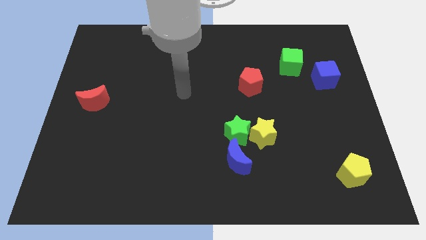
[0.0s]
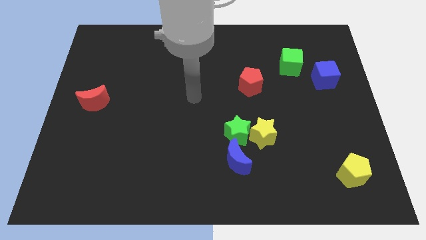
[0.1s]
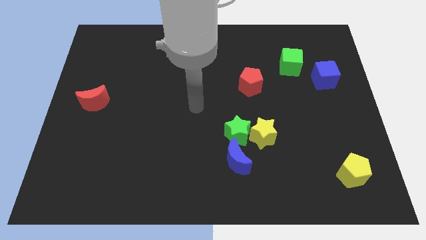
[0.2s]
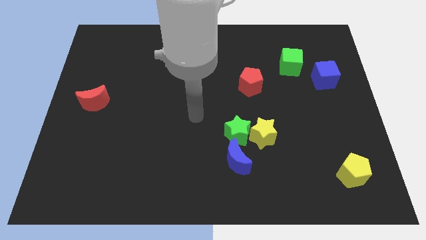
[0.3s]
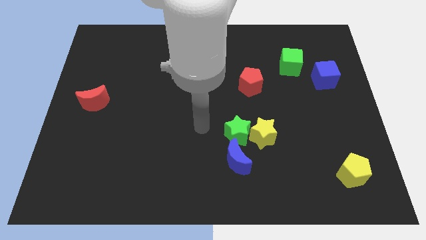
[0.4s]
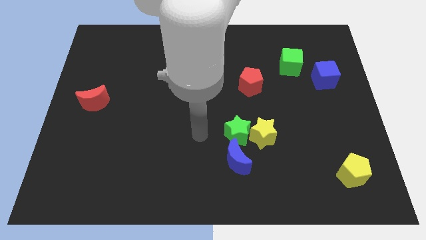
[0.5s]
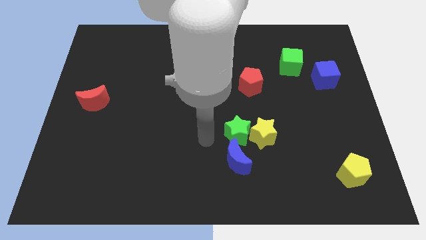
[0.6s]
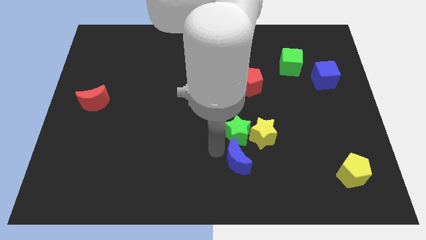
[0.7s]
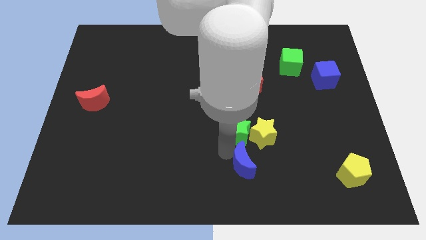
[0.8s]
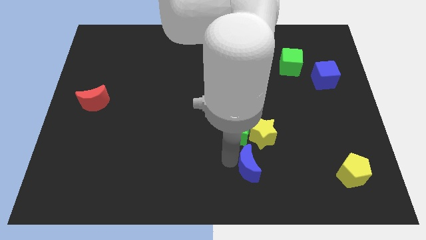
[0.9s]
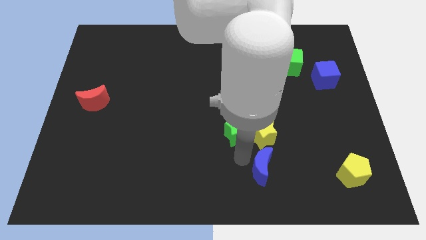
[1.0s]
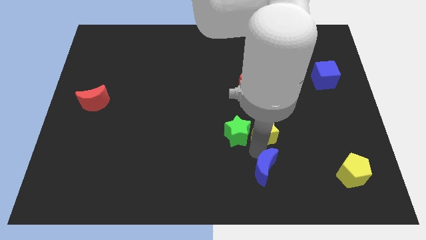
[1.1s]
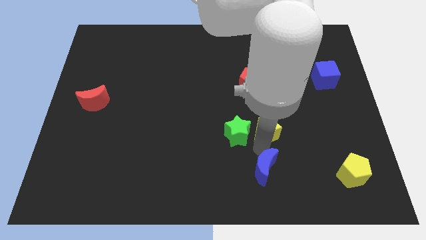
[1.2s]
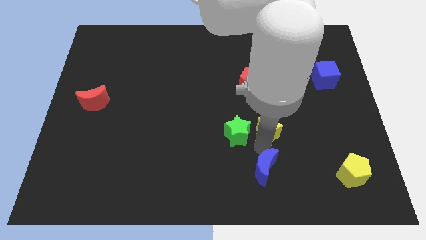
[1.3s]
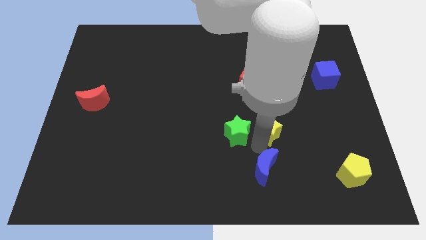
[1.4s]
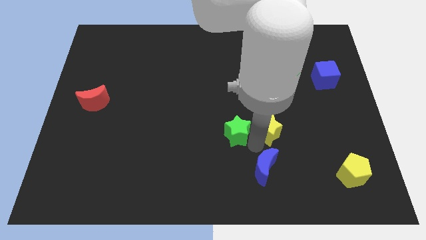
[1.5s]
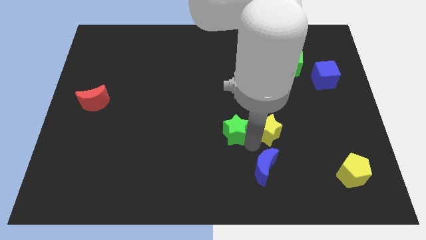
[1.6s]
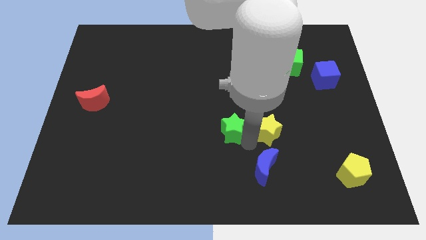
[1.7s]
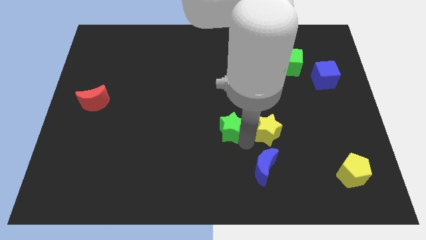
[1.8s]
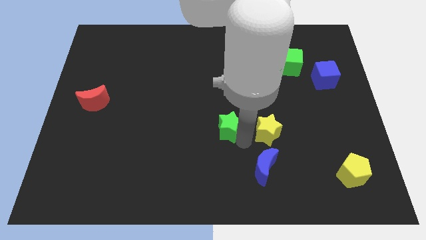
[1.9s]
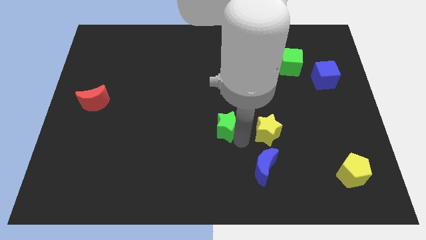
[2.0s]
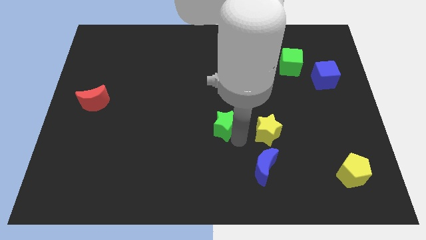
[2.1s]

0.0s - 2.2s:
separate the green star from the yellow star and blue moon

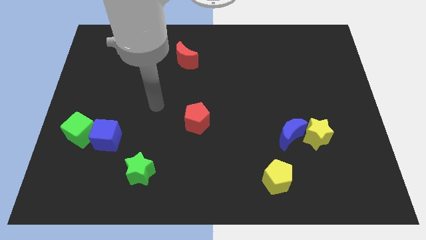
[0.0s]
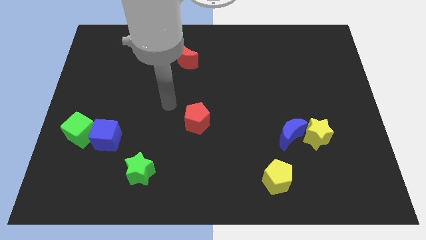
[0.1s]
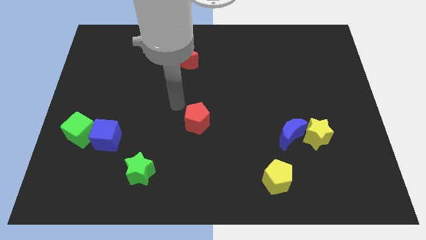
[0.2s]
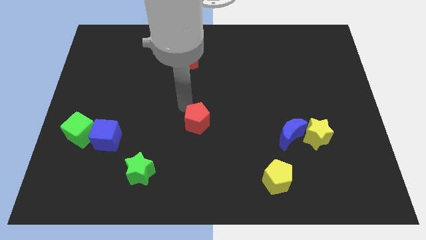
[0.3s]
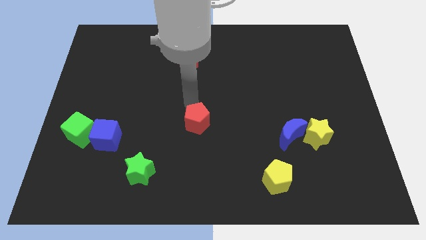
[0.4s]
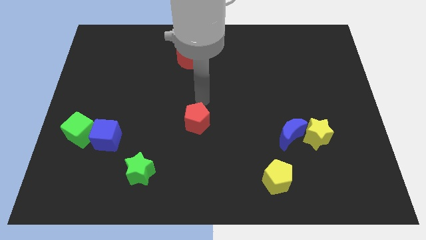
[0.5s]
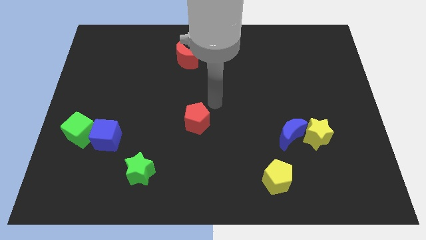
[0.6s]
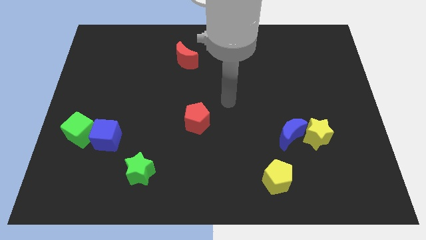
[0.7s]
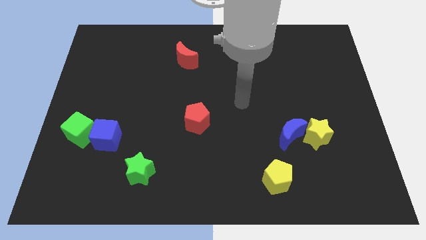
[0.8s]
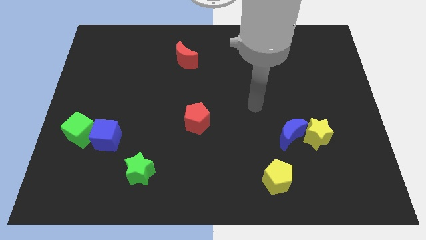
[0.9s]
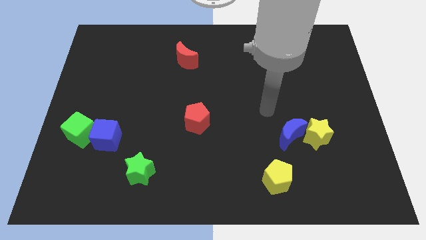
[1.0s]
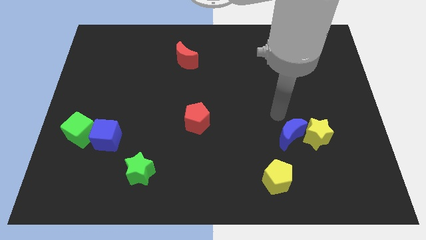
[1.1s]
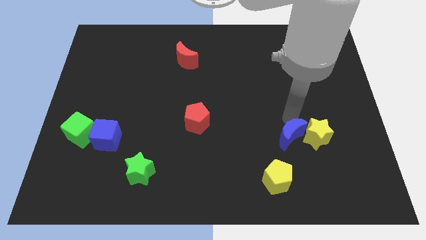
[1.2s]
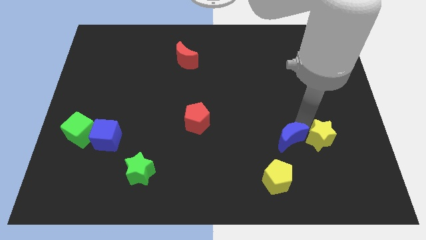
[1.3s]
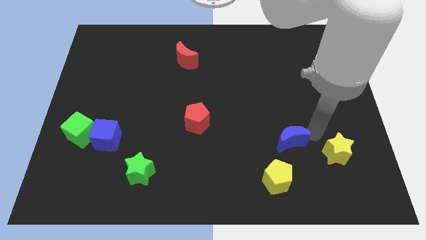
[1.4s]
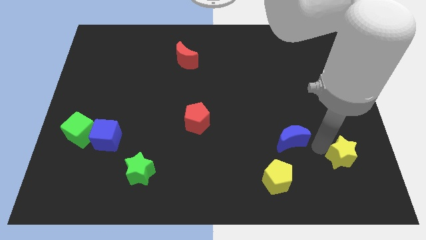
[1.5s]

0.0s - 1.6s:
move the blue moon away from the yellow star

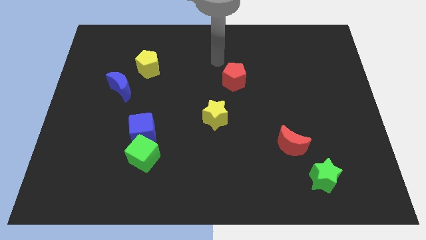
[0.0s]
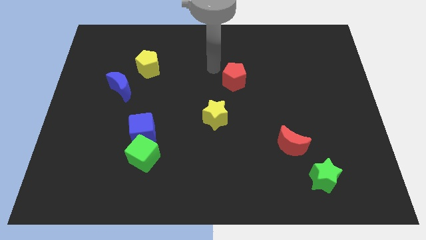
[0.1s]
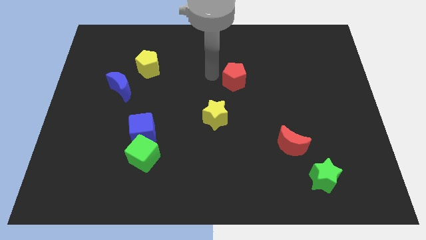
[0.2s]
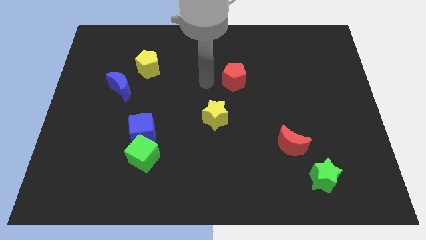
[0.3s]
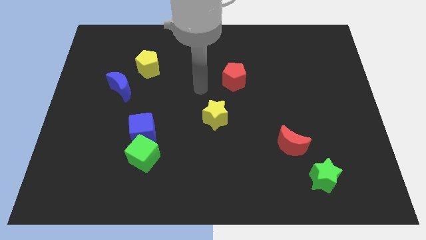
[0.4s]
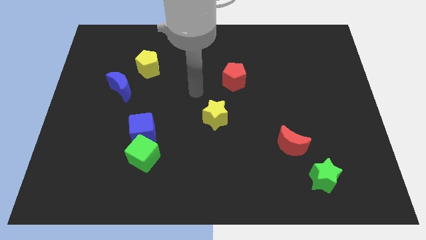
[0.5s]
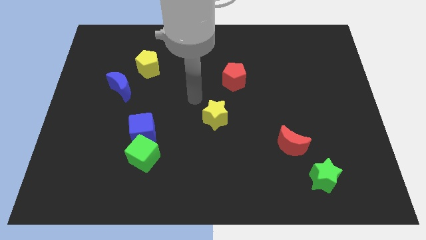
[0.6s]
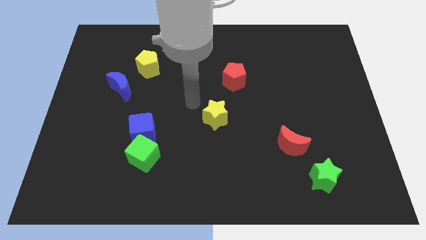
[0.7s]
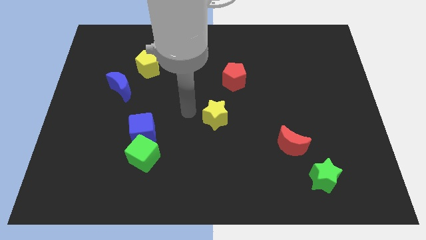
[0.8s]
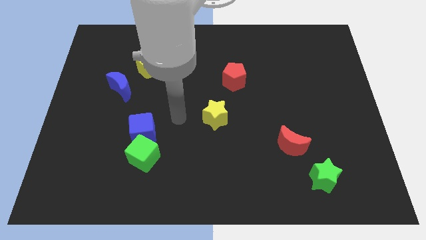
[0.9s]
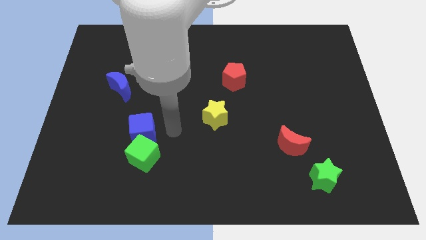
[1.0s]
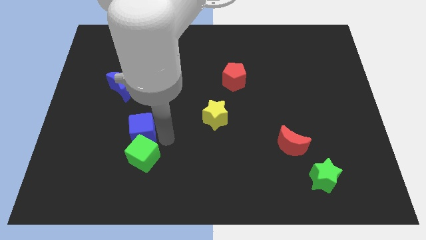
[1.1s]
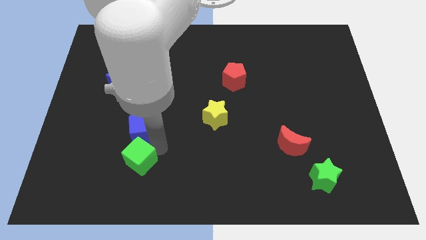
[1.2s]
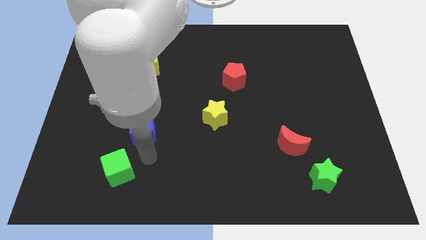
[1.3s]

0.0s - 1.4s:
separate the blue cube from the green cube

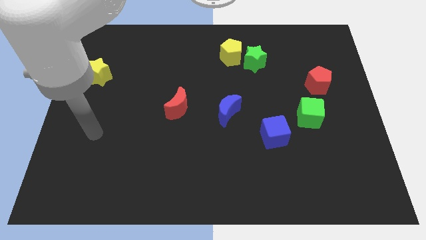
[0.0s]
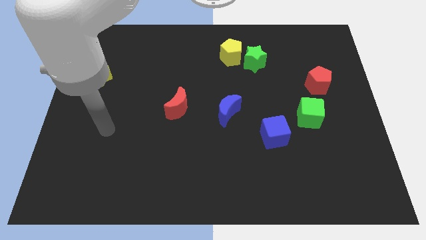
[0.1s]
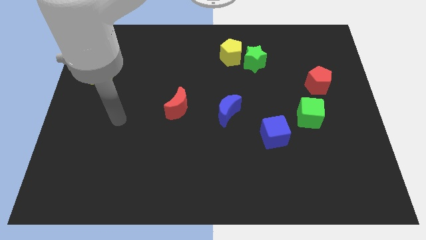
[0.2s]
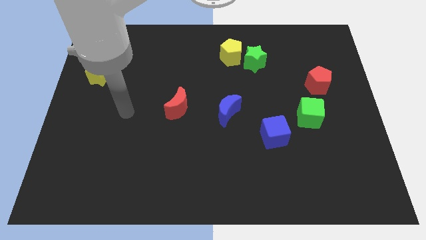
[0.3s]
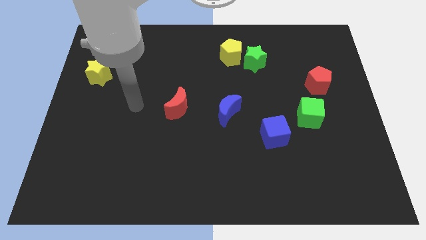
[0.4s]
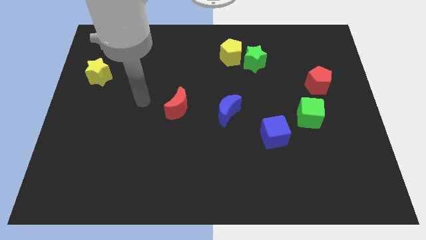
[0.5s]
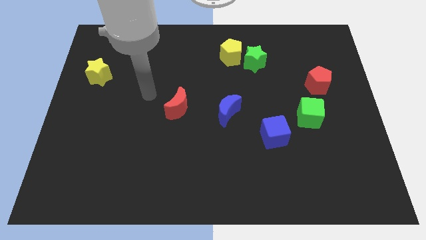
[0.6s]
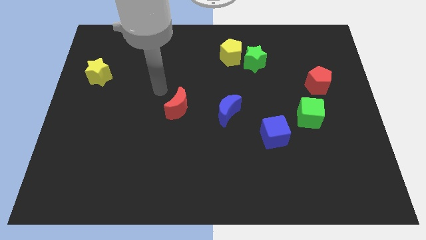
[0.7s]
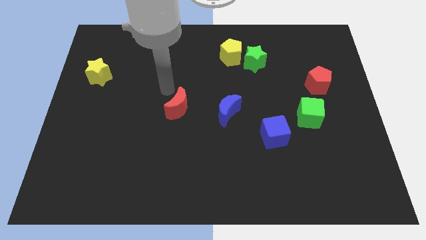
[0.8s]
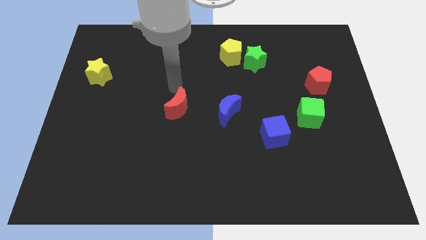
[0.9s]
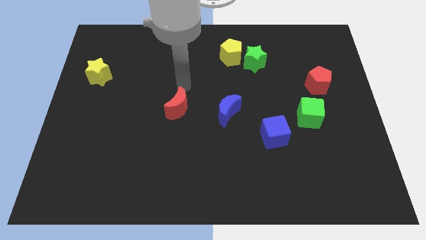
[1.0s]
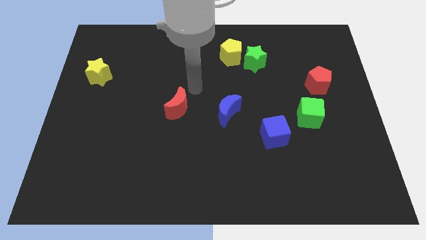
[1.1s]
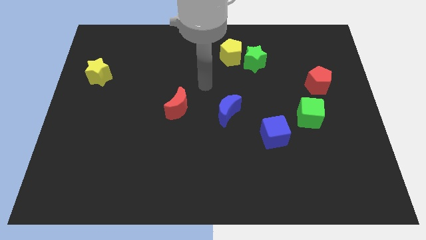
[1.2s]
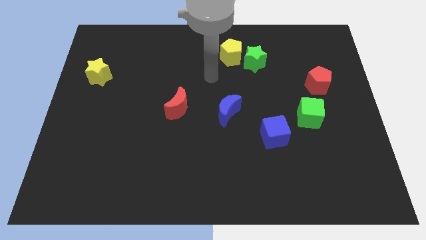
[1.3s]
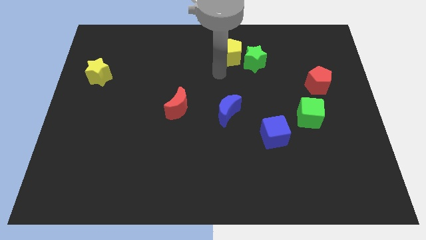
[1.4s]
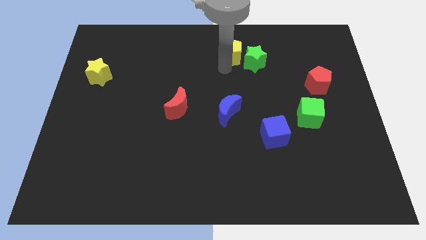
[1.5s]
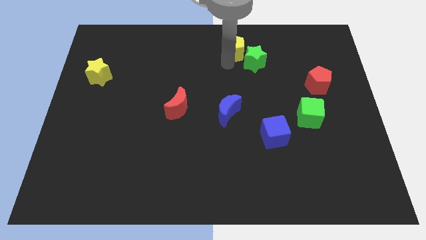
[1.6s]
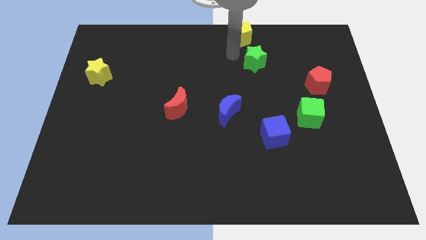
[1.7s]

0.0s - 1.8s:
pull the green star apart from the yellow pentagon

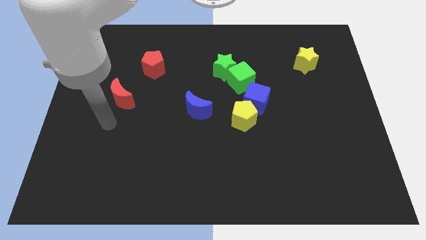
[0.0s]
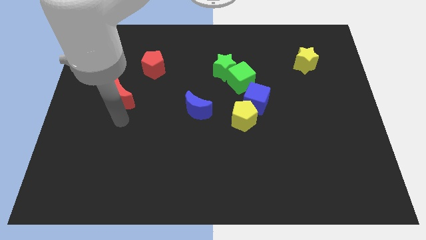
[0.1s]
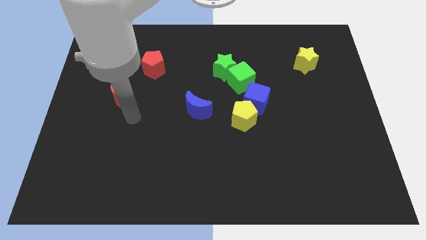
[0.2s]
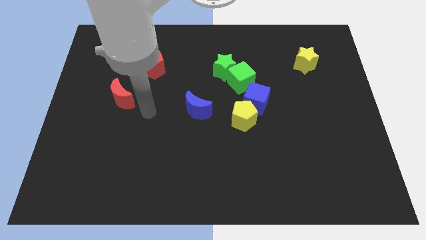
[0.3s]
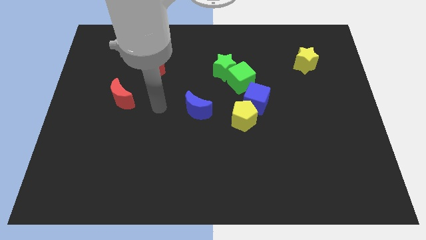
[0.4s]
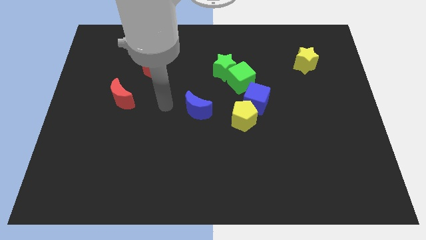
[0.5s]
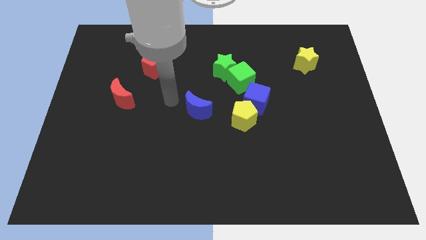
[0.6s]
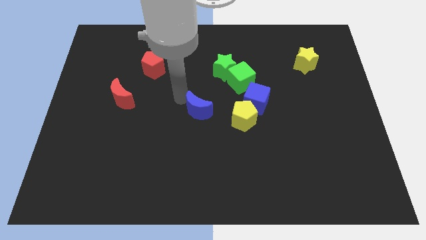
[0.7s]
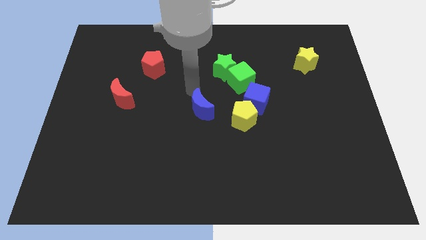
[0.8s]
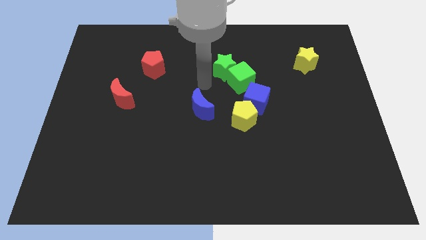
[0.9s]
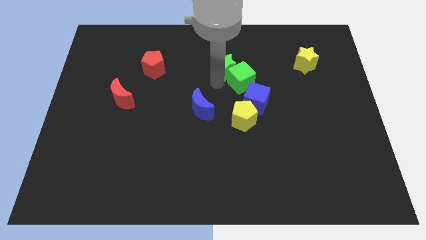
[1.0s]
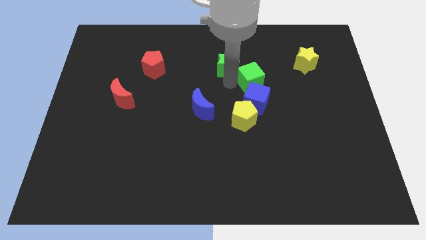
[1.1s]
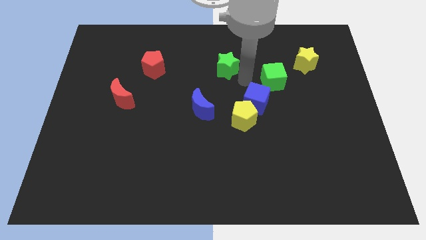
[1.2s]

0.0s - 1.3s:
pull the green star apart from the green cube

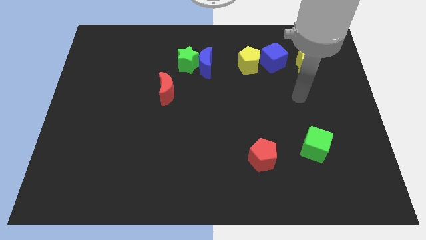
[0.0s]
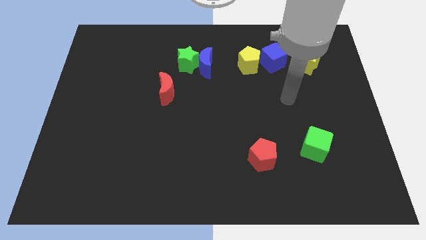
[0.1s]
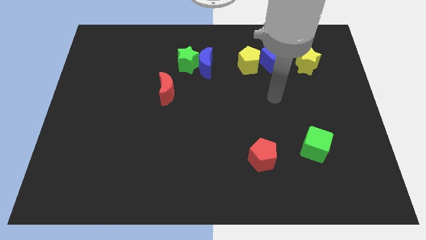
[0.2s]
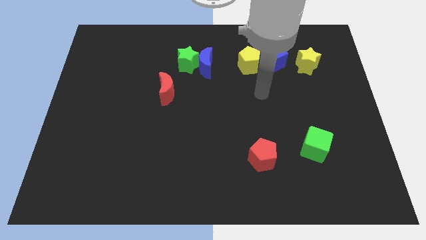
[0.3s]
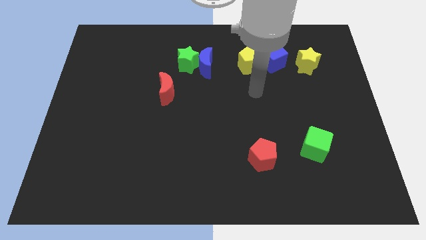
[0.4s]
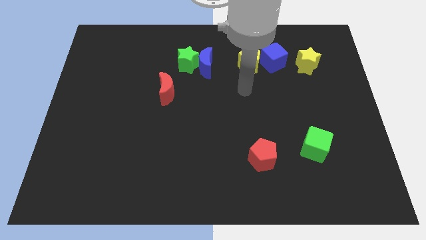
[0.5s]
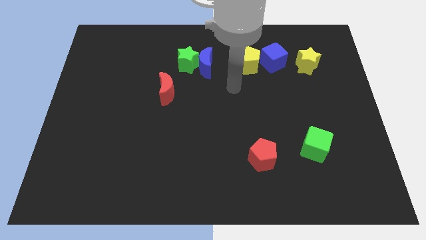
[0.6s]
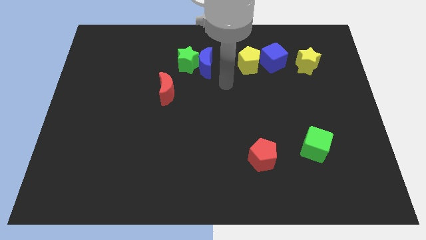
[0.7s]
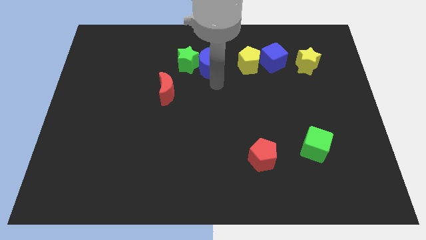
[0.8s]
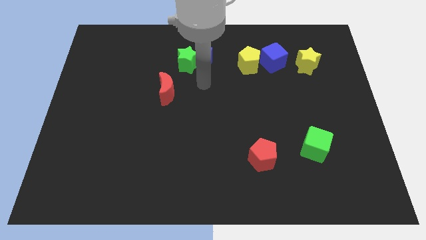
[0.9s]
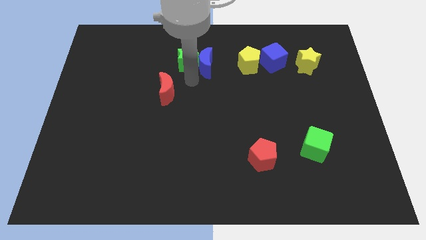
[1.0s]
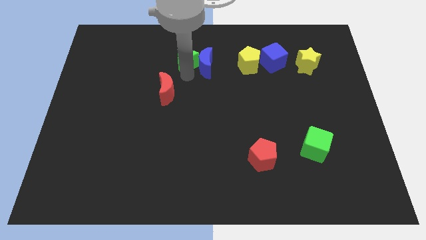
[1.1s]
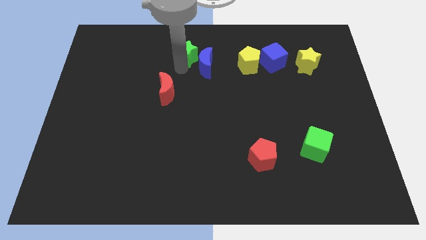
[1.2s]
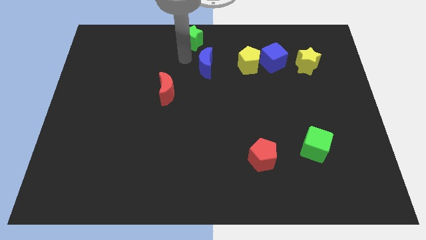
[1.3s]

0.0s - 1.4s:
pull the blue moon apart from the green star
